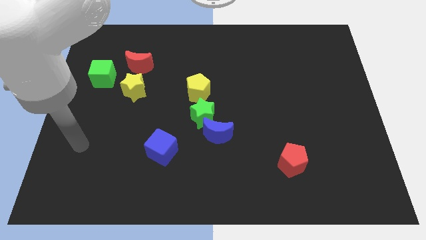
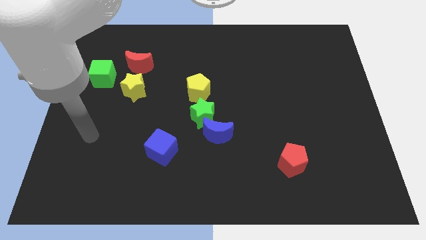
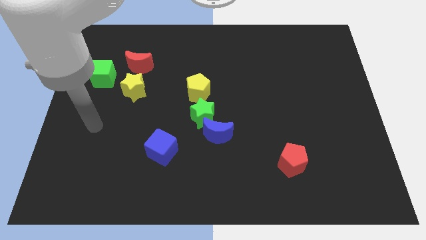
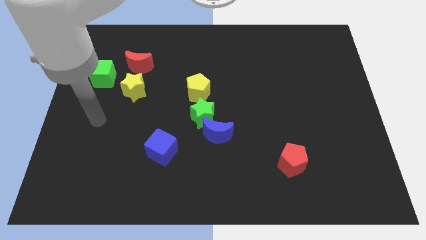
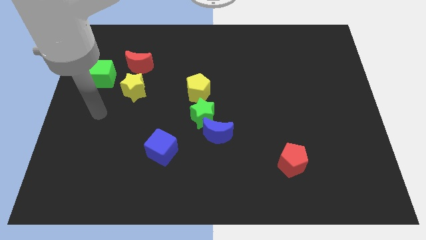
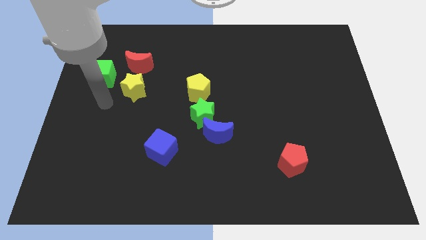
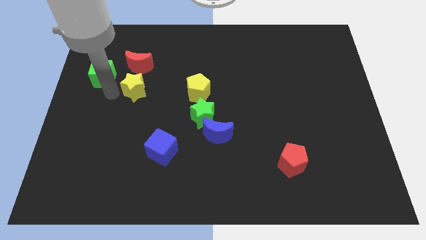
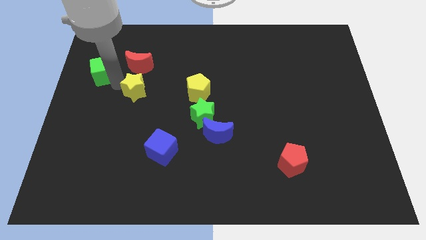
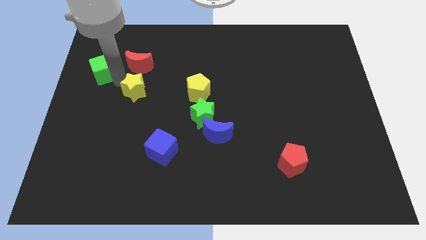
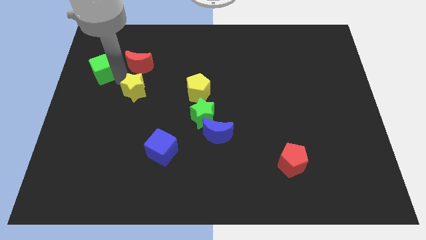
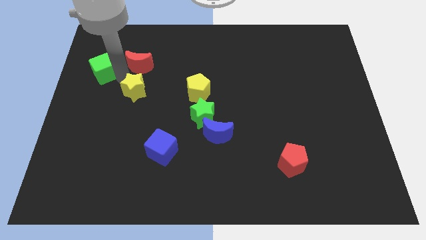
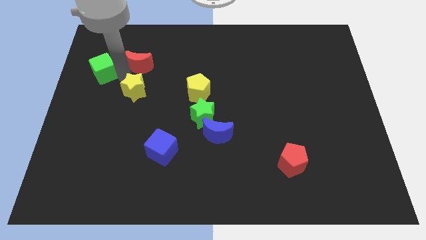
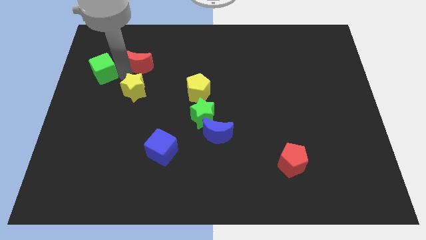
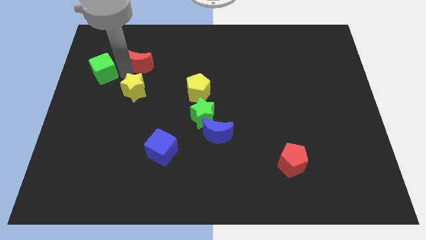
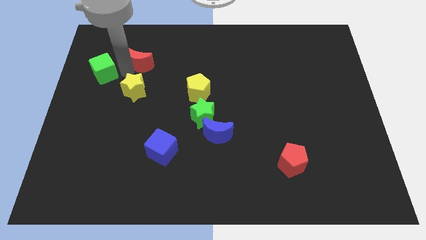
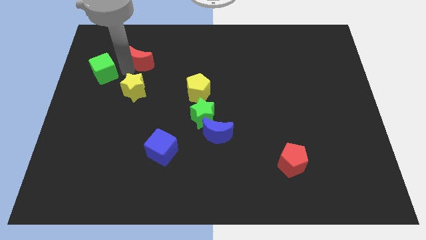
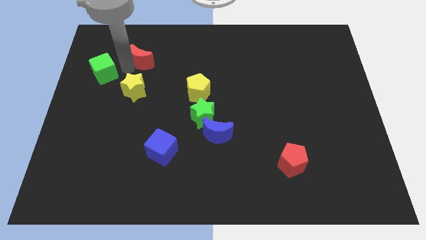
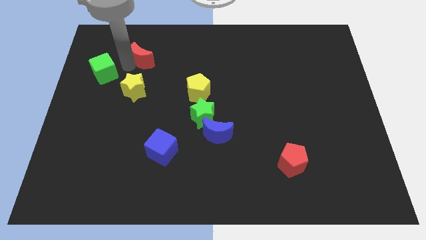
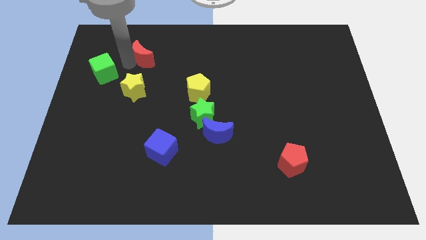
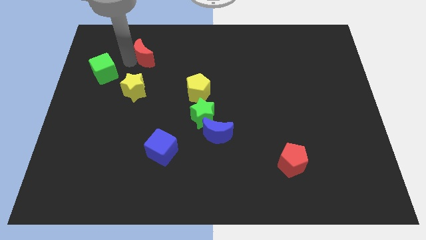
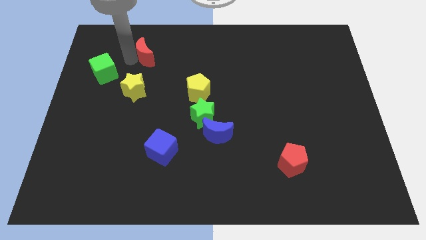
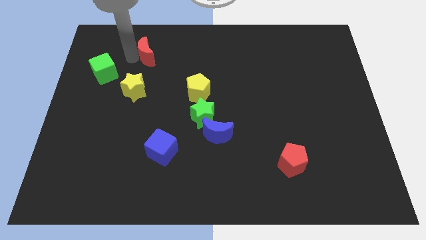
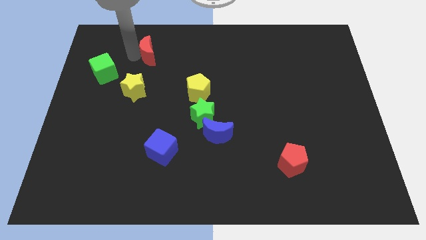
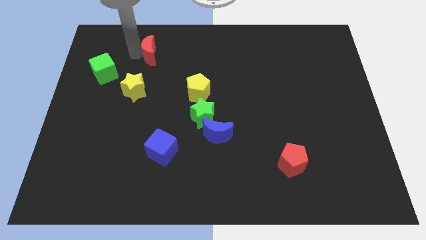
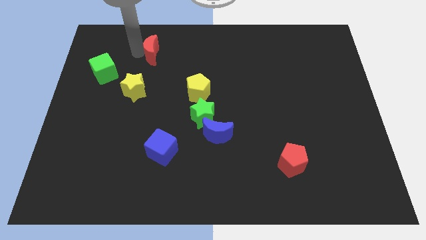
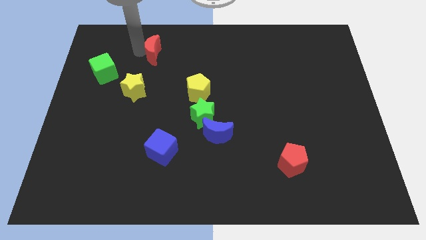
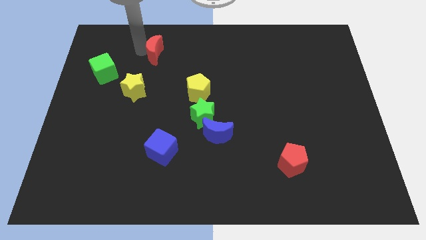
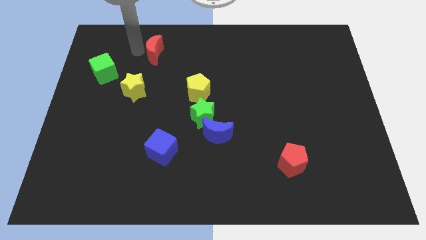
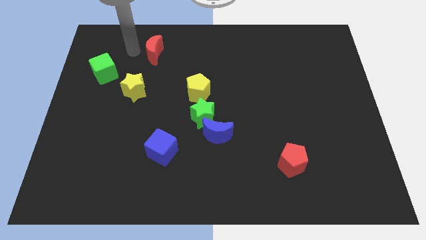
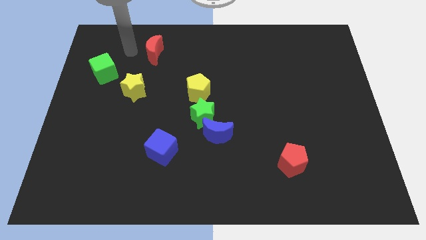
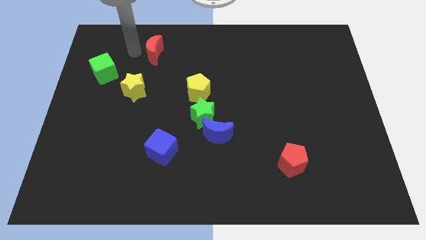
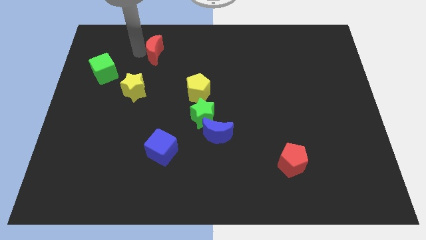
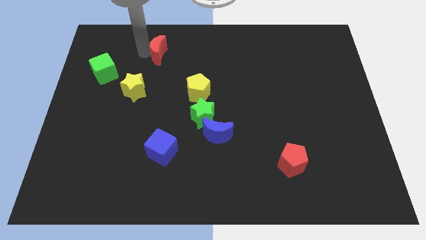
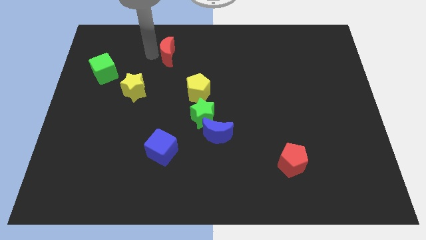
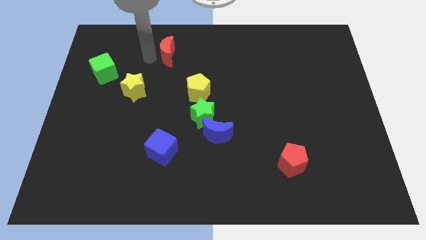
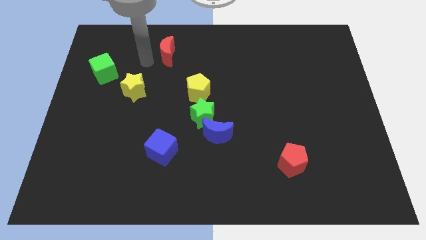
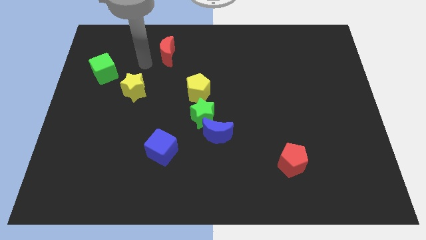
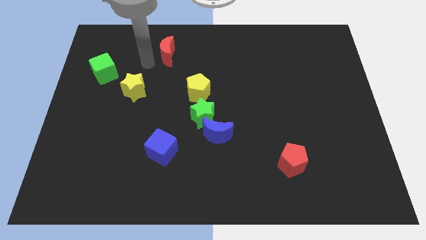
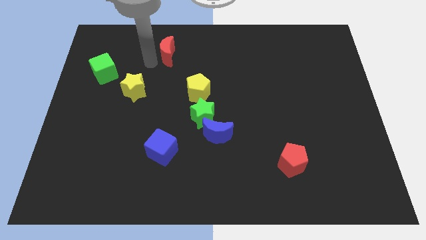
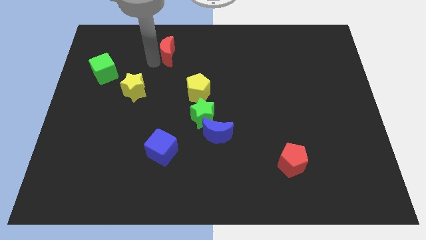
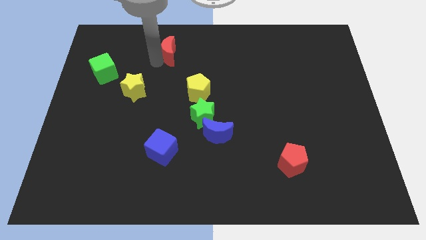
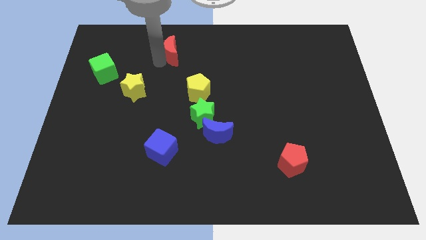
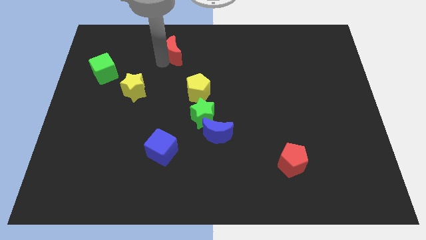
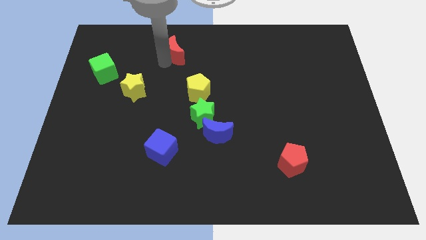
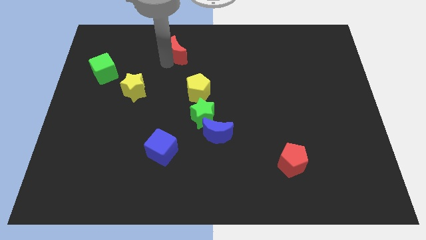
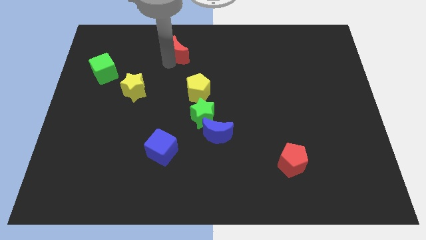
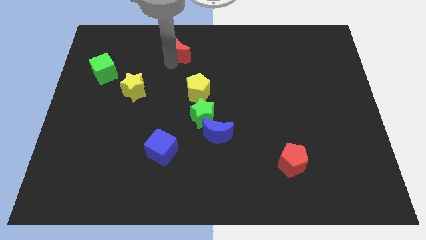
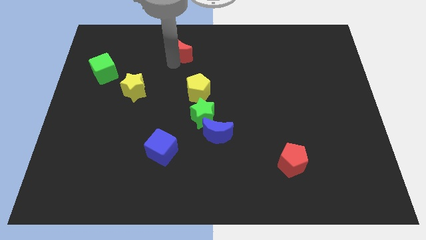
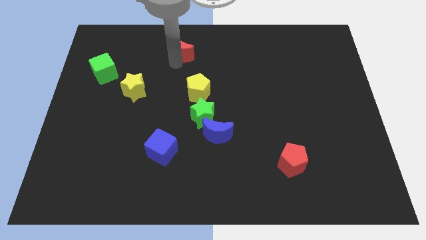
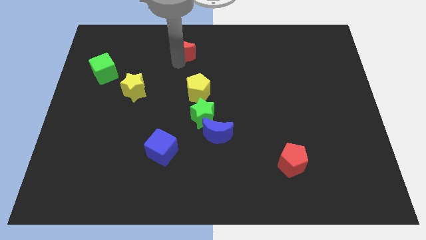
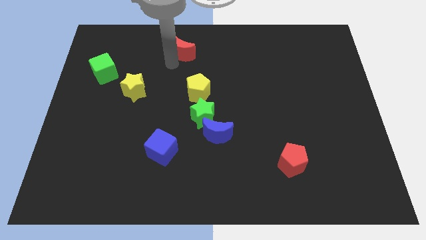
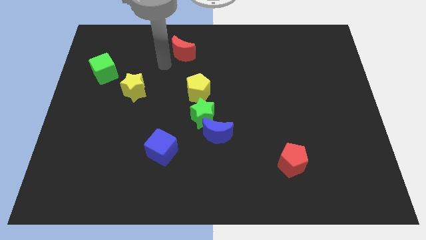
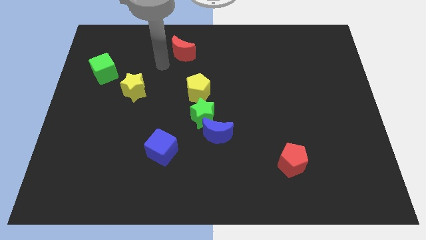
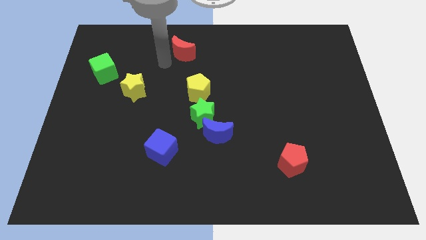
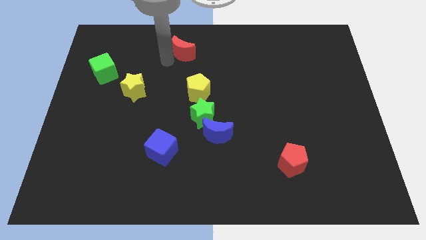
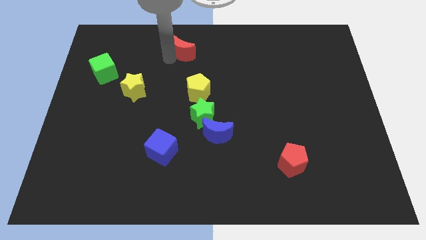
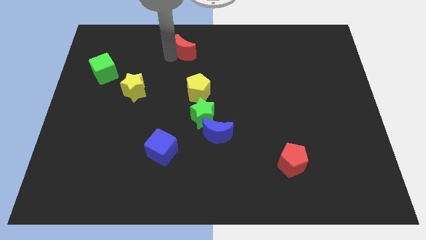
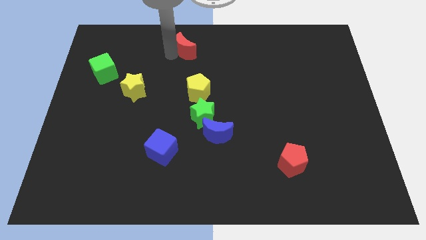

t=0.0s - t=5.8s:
push the red moon to the top side

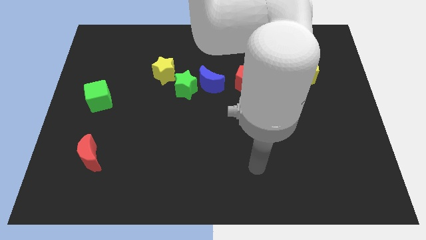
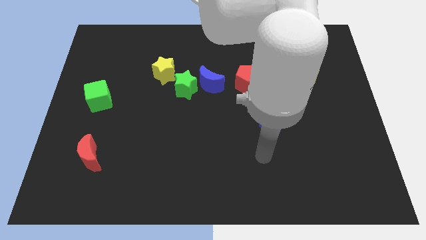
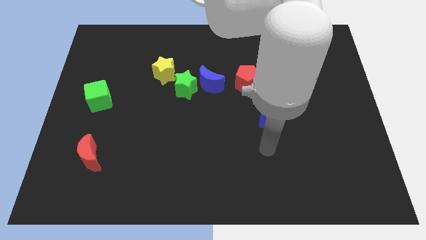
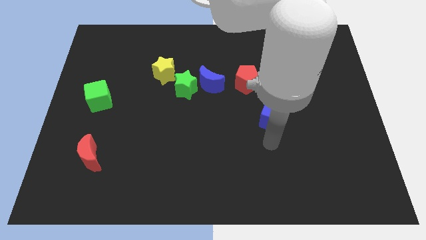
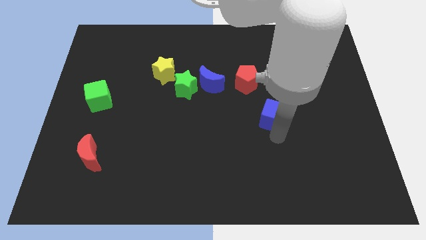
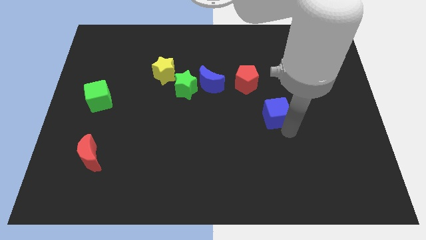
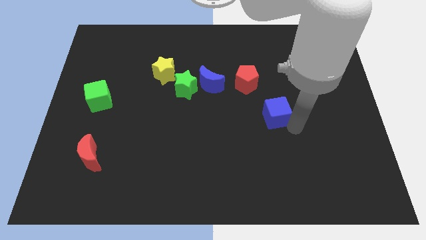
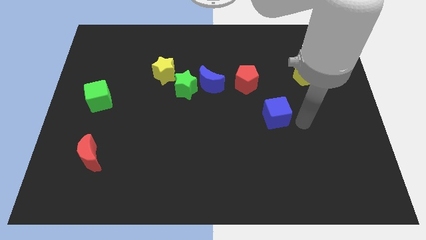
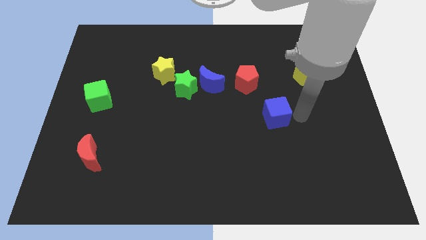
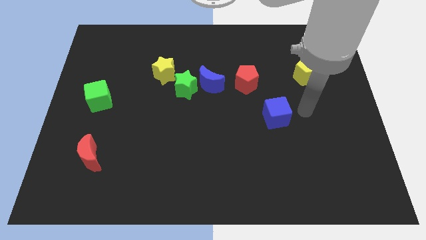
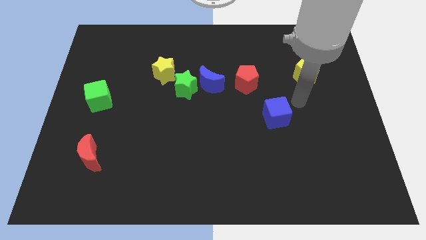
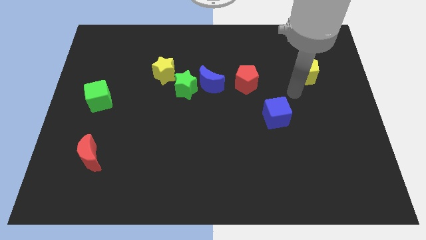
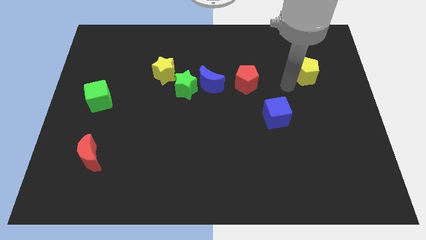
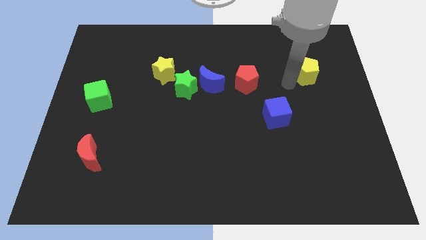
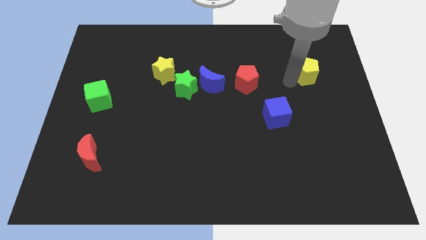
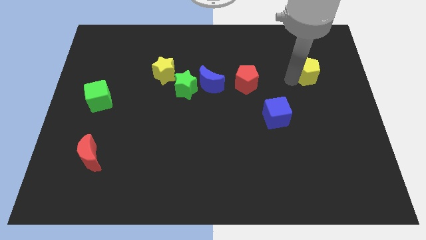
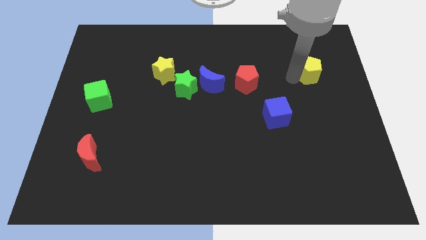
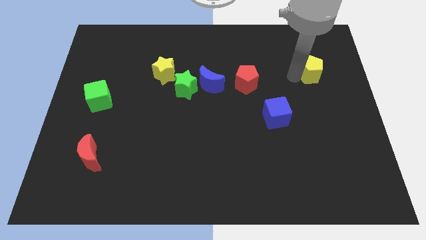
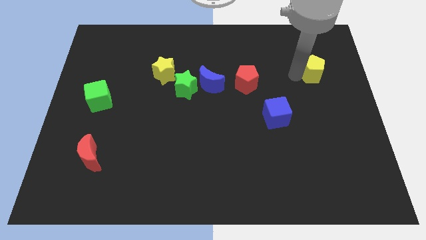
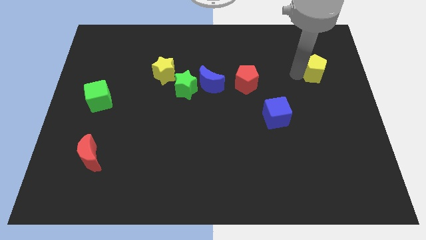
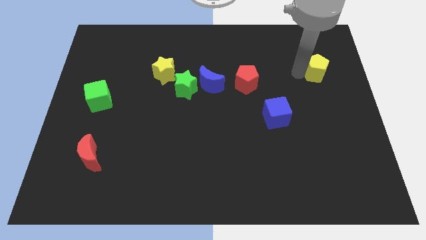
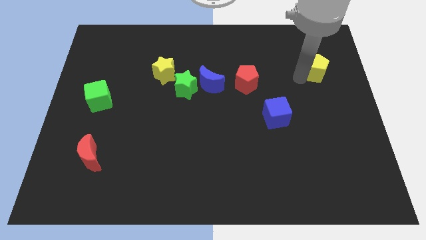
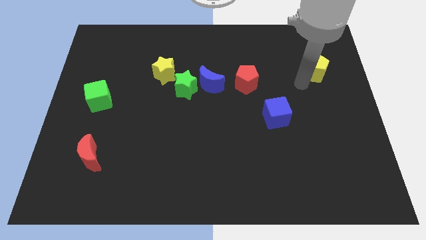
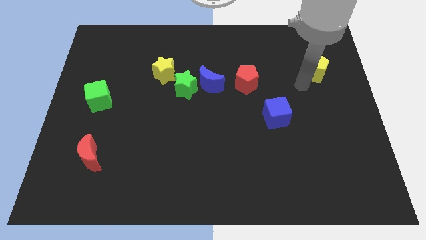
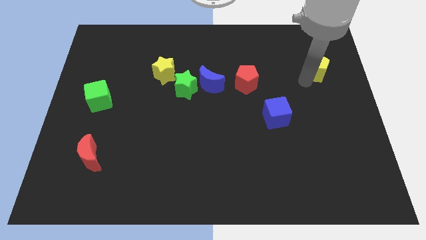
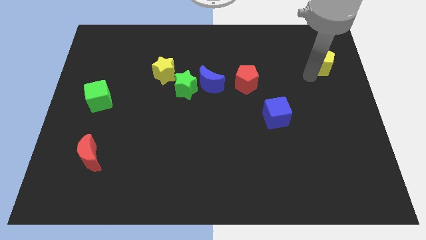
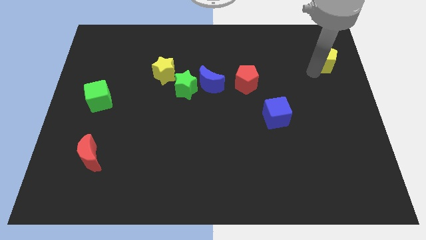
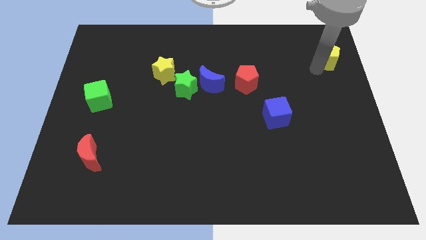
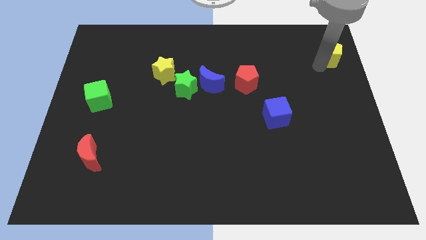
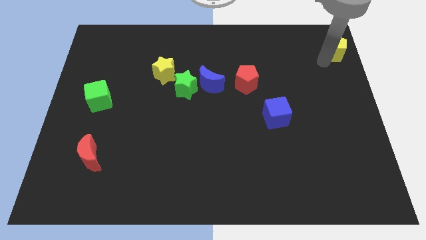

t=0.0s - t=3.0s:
put the yellow pentagon to the top right corner
